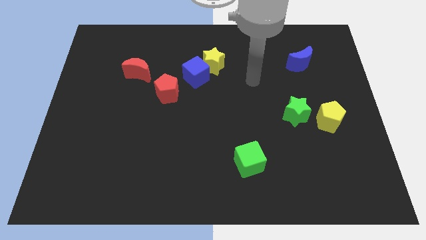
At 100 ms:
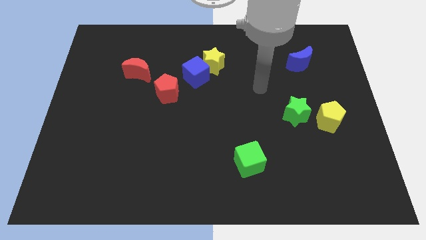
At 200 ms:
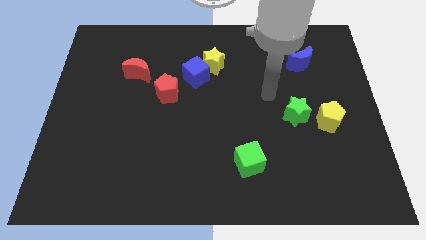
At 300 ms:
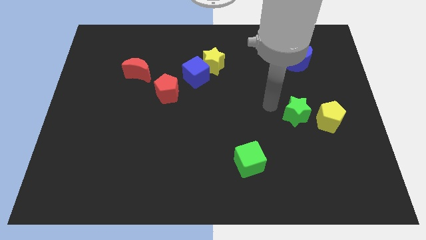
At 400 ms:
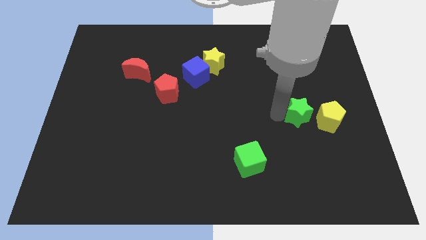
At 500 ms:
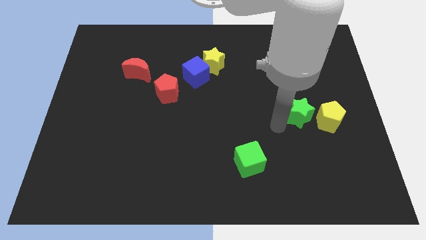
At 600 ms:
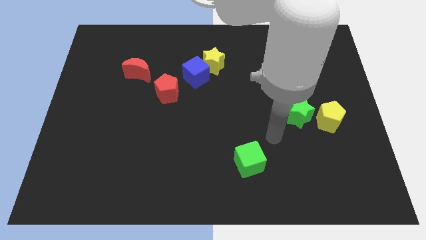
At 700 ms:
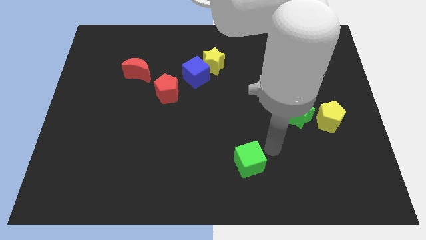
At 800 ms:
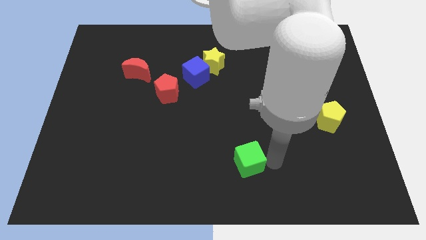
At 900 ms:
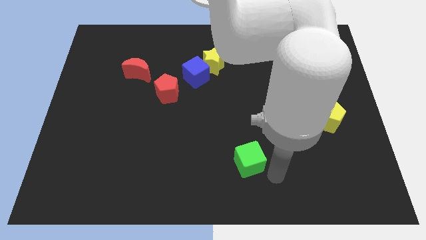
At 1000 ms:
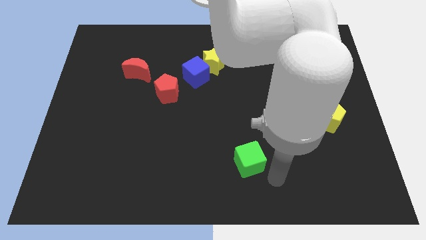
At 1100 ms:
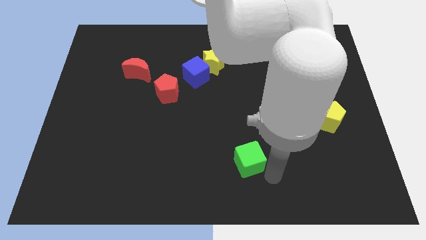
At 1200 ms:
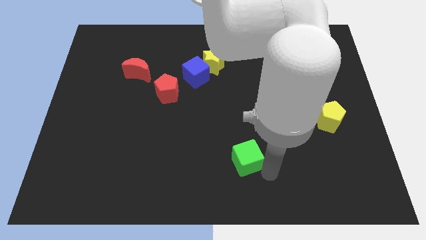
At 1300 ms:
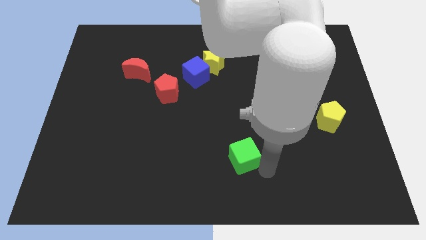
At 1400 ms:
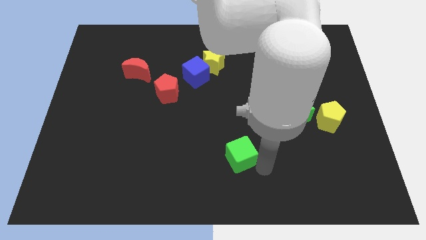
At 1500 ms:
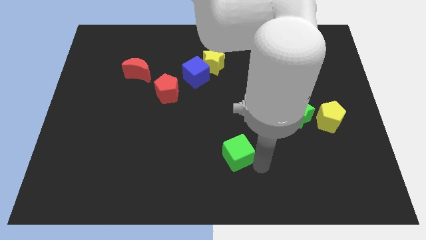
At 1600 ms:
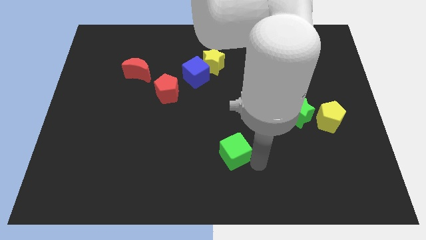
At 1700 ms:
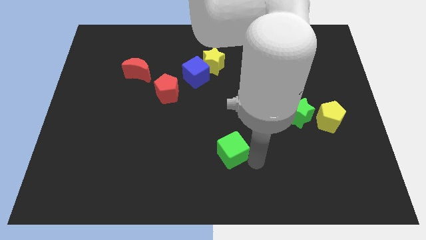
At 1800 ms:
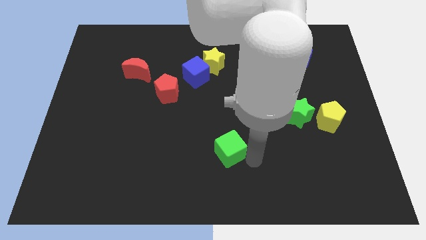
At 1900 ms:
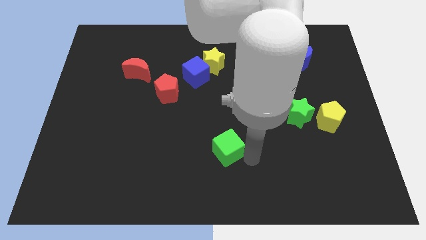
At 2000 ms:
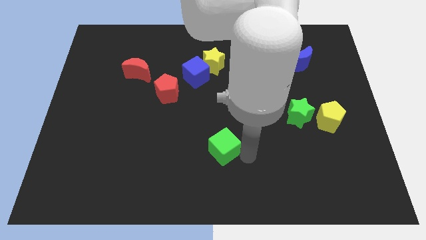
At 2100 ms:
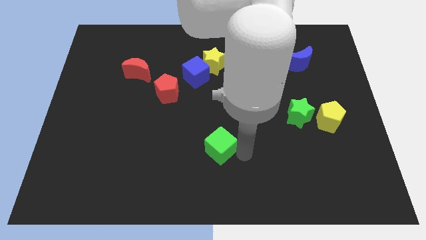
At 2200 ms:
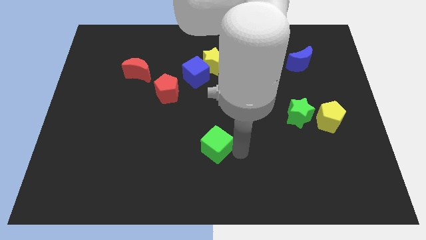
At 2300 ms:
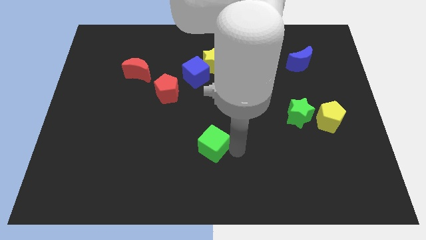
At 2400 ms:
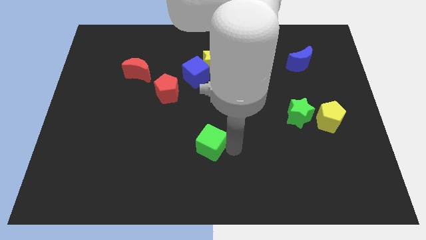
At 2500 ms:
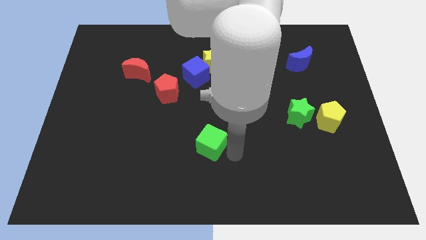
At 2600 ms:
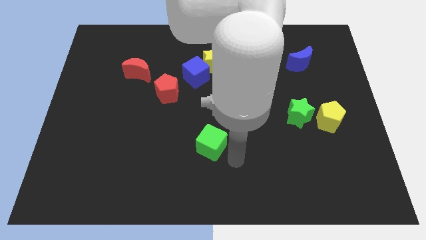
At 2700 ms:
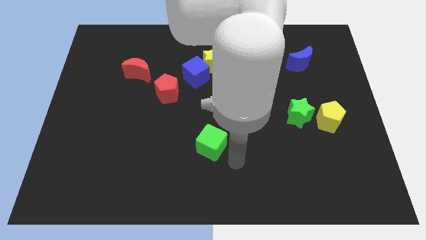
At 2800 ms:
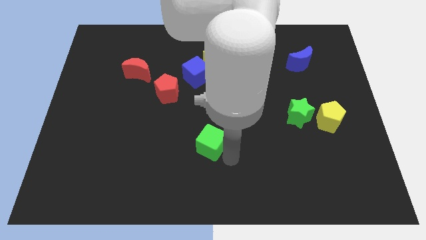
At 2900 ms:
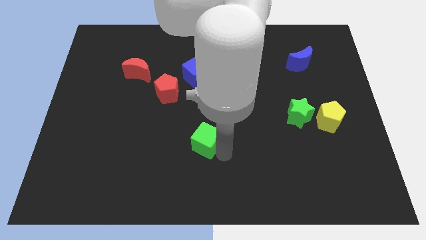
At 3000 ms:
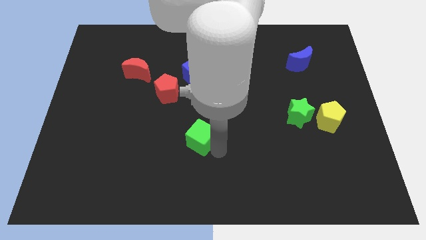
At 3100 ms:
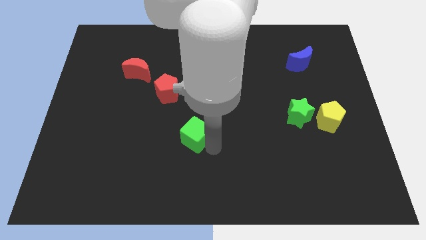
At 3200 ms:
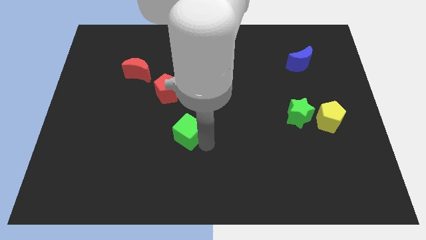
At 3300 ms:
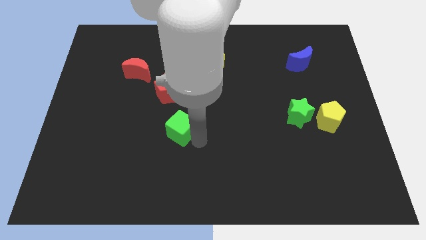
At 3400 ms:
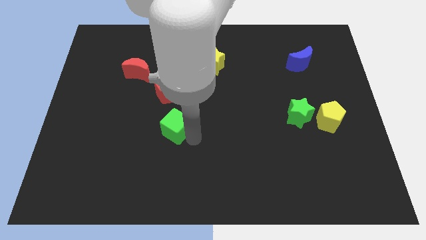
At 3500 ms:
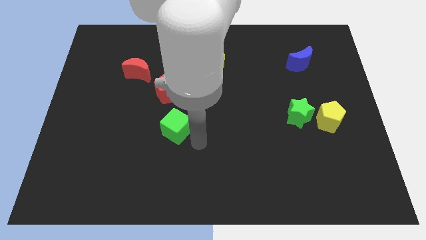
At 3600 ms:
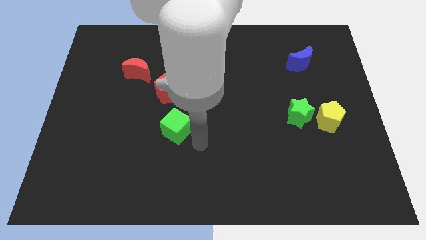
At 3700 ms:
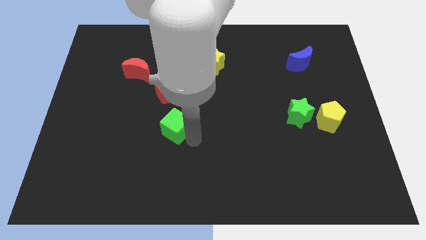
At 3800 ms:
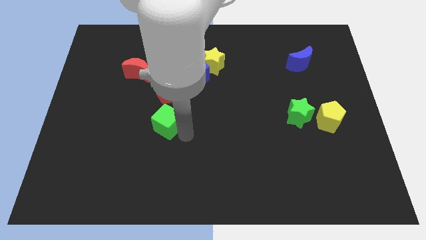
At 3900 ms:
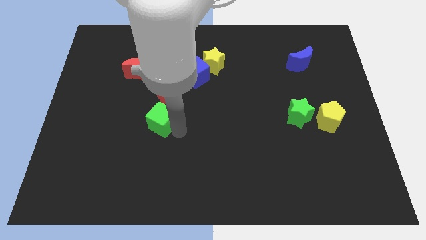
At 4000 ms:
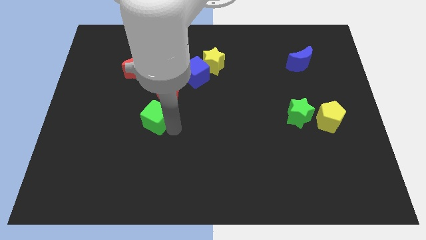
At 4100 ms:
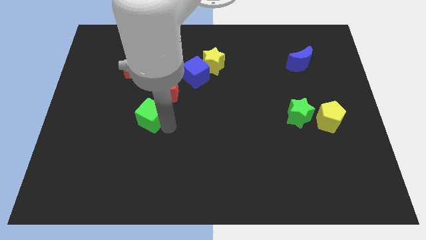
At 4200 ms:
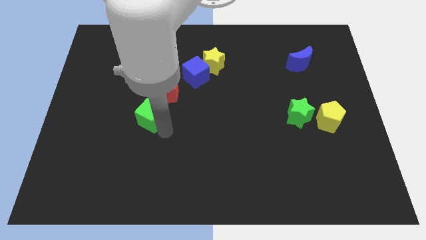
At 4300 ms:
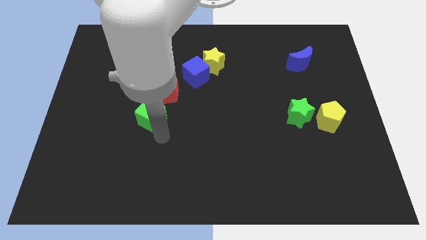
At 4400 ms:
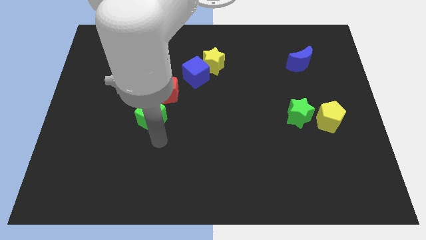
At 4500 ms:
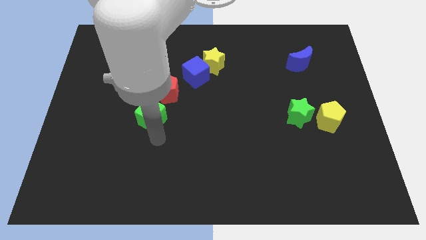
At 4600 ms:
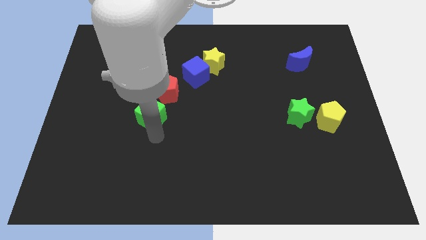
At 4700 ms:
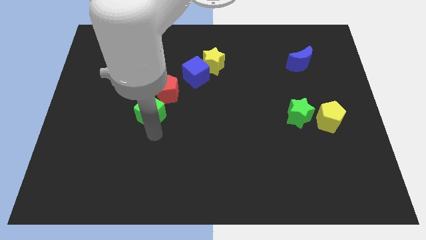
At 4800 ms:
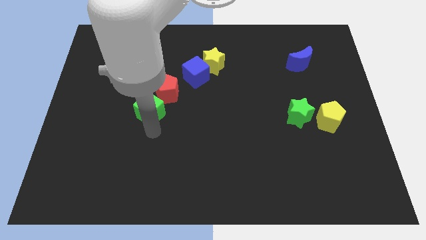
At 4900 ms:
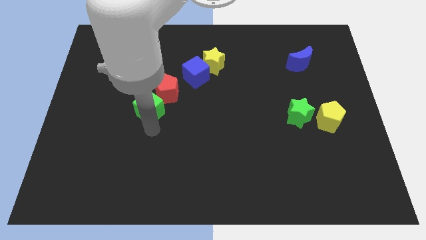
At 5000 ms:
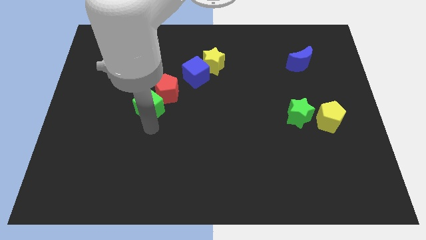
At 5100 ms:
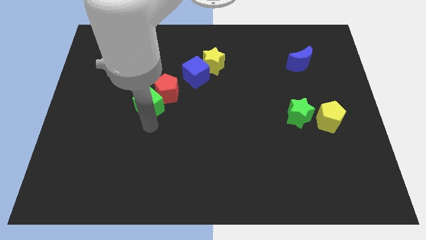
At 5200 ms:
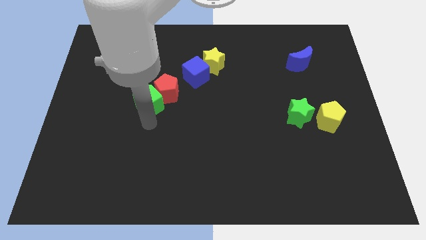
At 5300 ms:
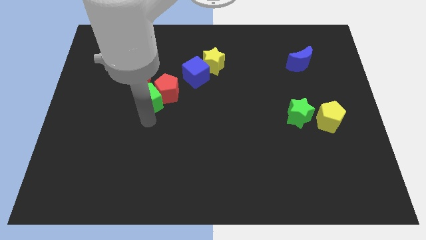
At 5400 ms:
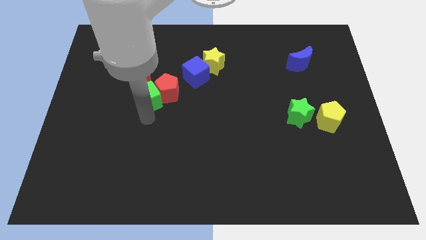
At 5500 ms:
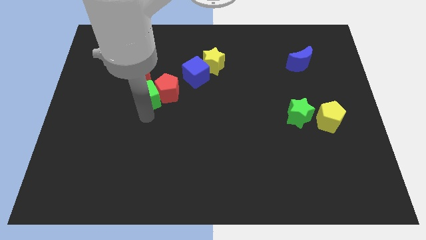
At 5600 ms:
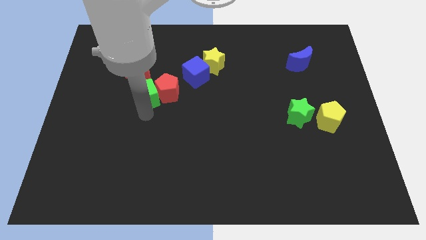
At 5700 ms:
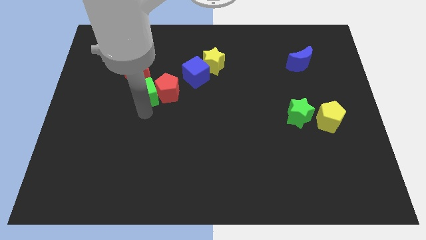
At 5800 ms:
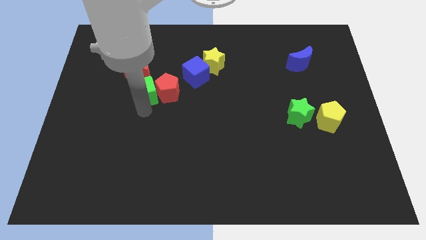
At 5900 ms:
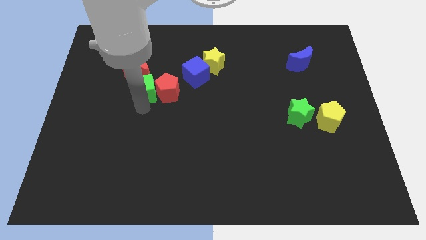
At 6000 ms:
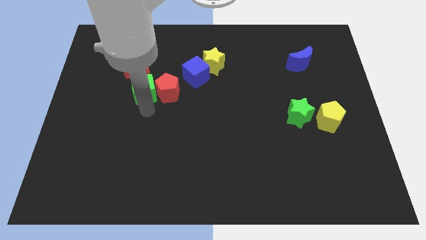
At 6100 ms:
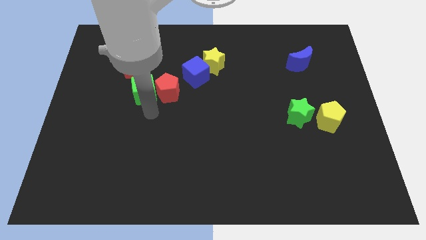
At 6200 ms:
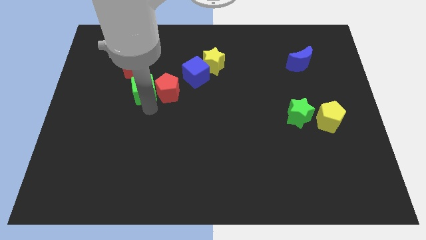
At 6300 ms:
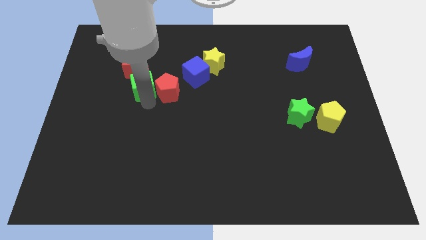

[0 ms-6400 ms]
move the green cube next to the red moon

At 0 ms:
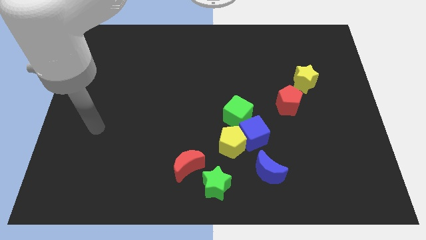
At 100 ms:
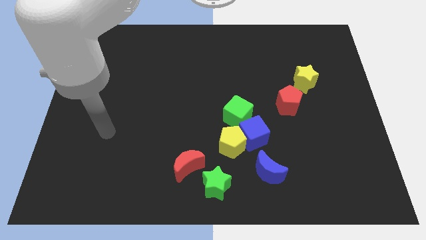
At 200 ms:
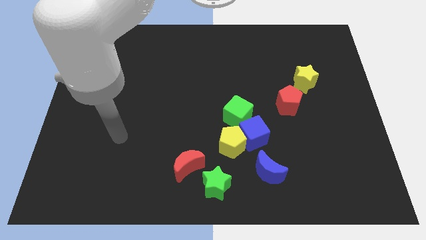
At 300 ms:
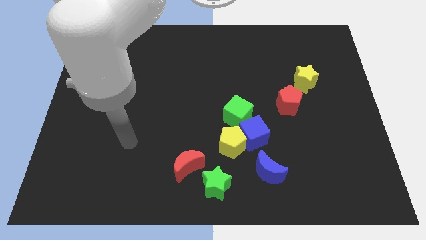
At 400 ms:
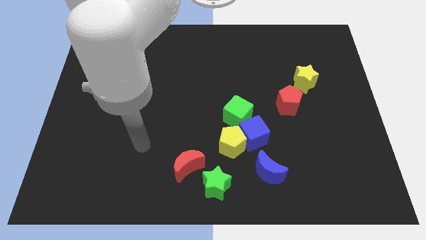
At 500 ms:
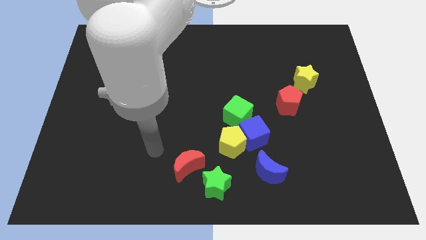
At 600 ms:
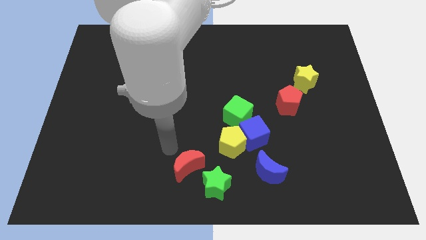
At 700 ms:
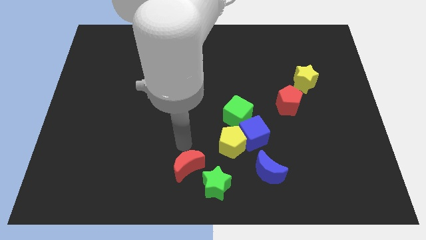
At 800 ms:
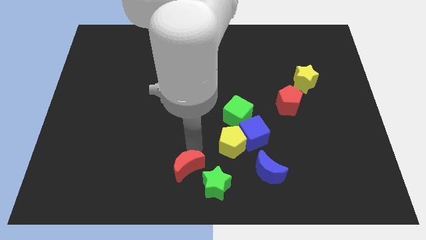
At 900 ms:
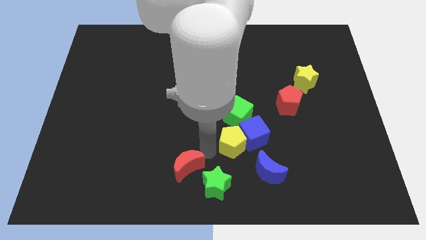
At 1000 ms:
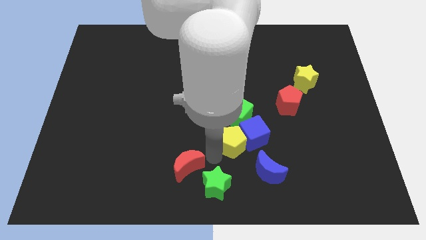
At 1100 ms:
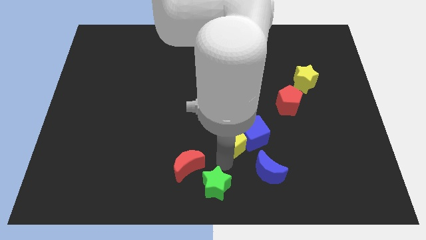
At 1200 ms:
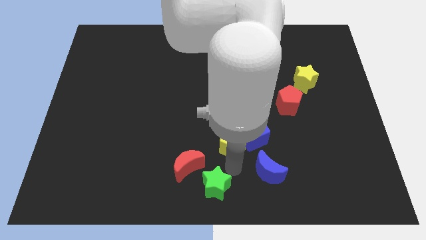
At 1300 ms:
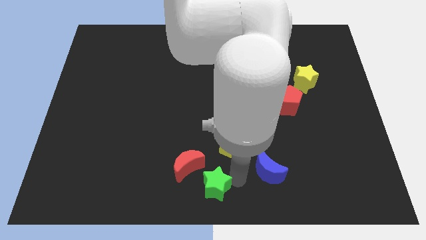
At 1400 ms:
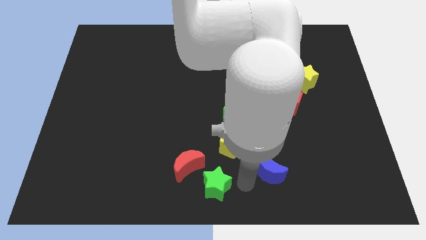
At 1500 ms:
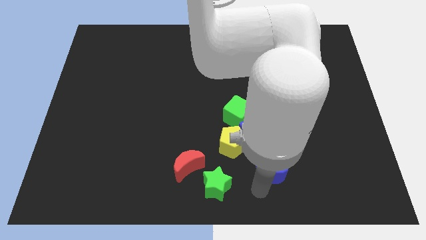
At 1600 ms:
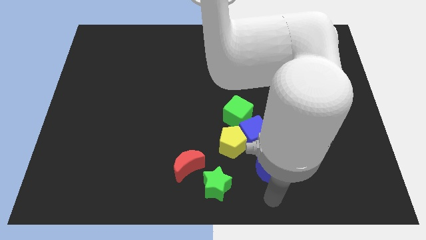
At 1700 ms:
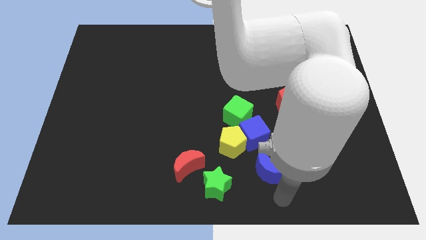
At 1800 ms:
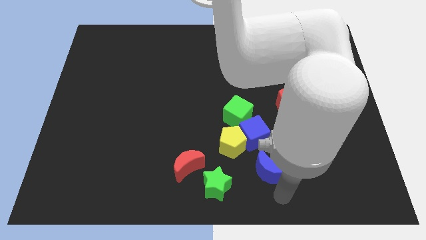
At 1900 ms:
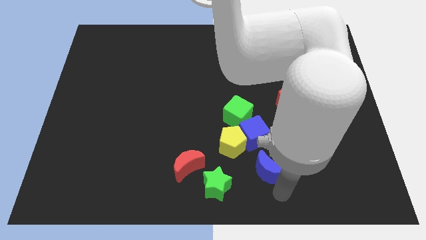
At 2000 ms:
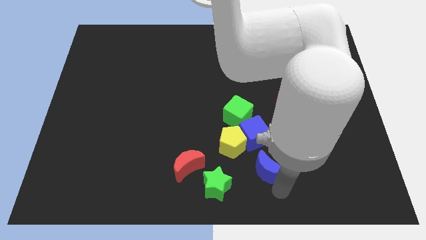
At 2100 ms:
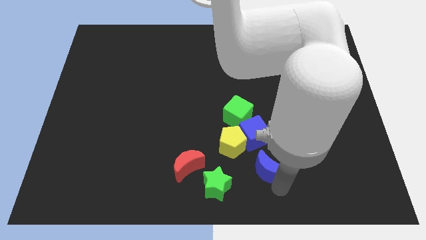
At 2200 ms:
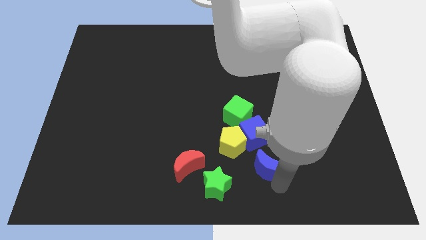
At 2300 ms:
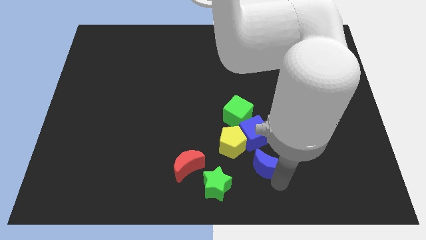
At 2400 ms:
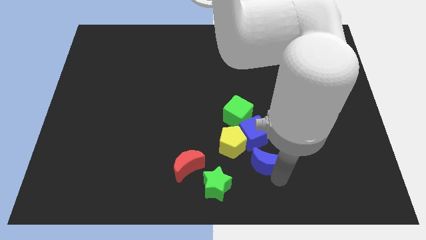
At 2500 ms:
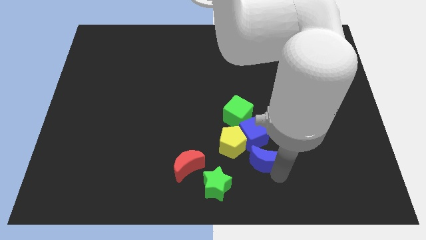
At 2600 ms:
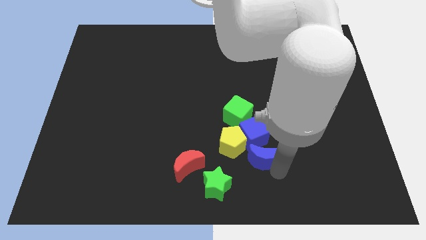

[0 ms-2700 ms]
slide the blue moon next to the blue cube
